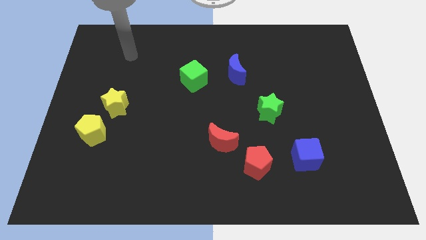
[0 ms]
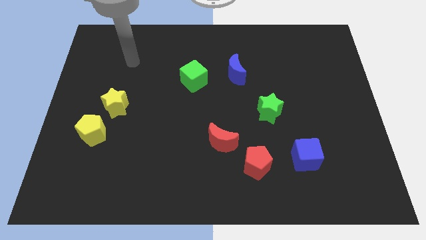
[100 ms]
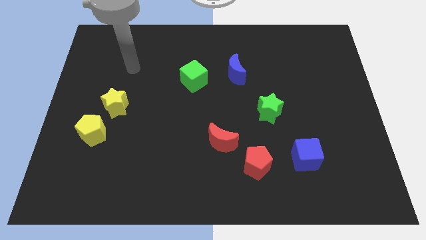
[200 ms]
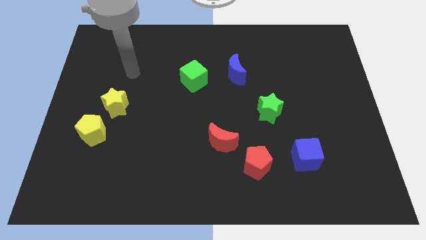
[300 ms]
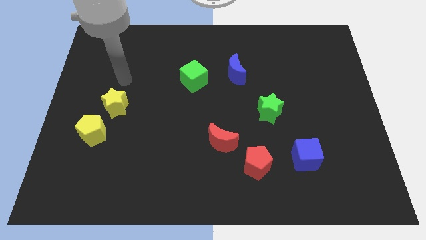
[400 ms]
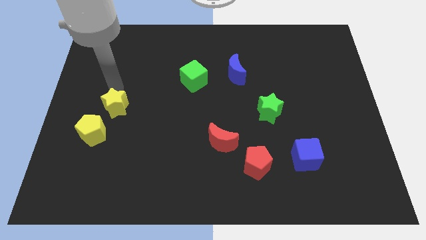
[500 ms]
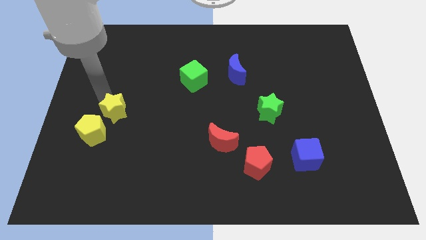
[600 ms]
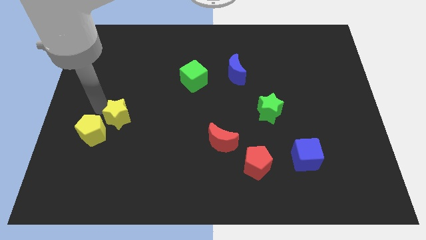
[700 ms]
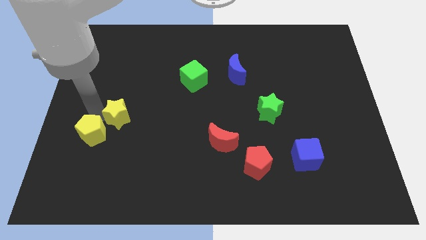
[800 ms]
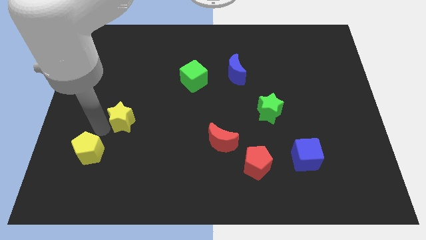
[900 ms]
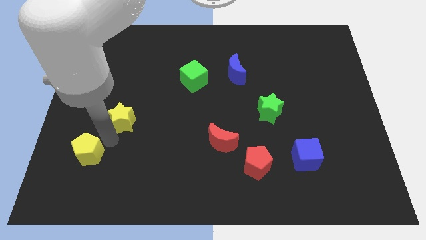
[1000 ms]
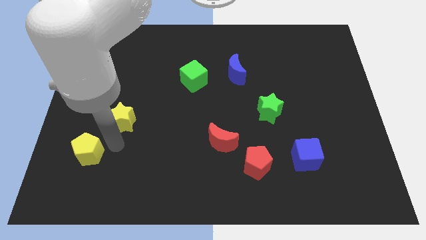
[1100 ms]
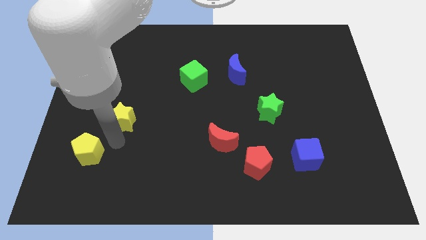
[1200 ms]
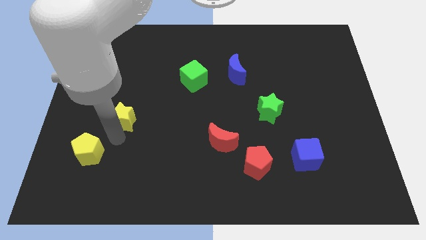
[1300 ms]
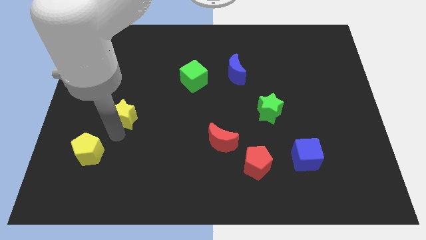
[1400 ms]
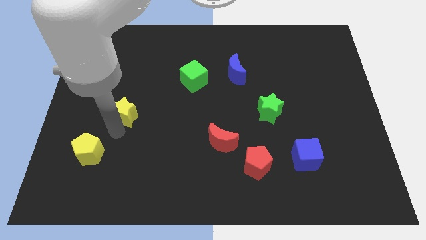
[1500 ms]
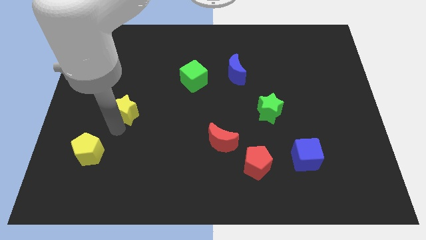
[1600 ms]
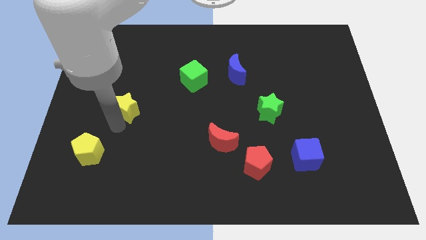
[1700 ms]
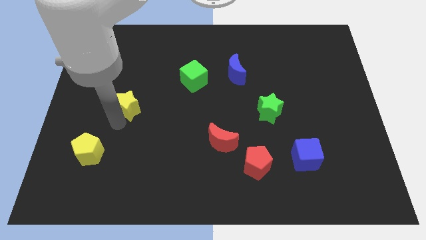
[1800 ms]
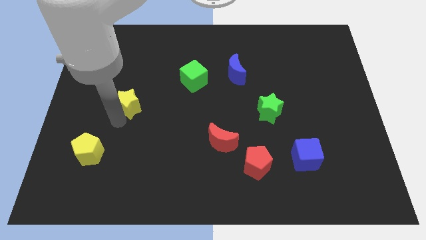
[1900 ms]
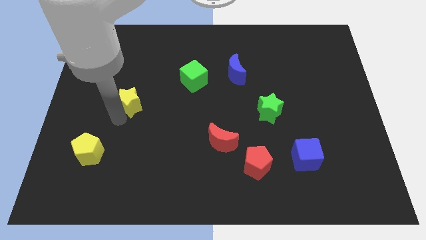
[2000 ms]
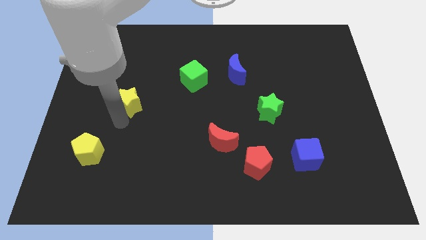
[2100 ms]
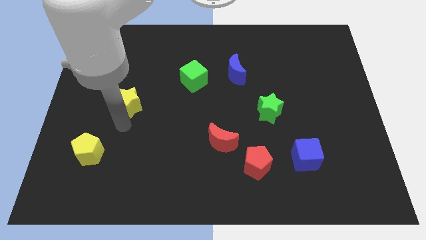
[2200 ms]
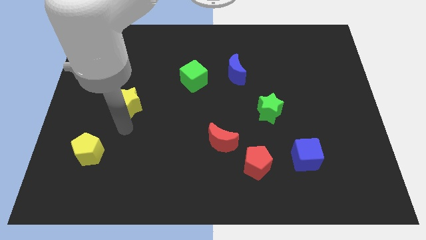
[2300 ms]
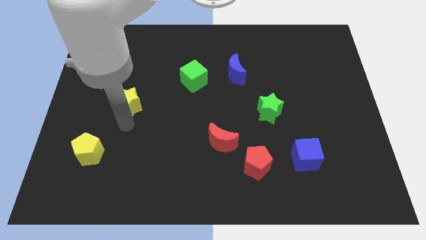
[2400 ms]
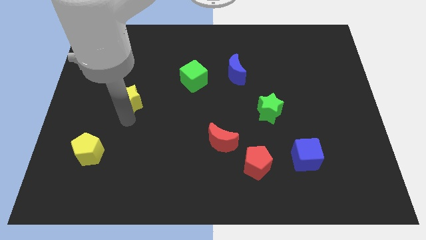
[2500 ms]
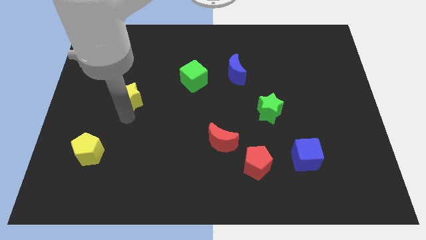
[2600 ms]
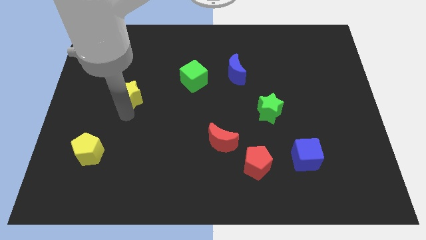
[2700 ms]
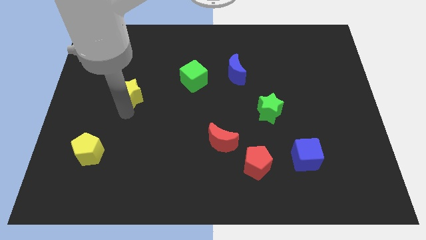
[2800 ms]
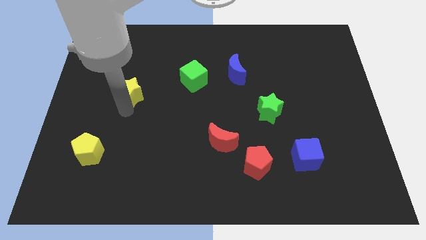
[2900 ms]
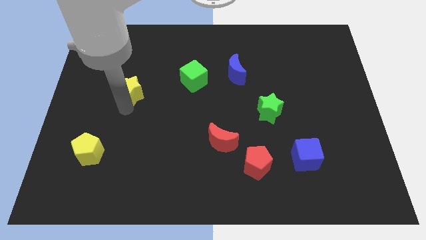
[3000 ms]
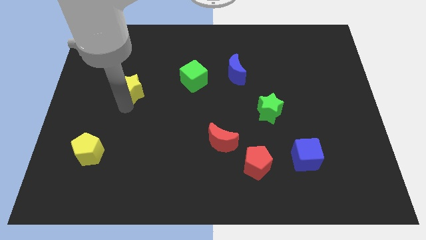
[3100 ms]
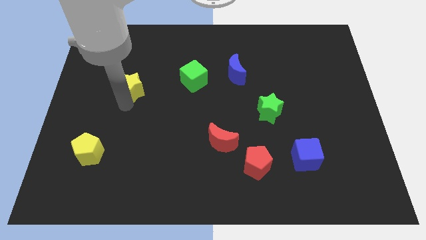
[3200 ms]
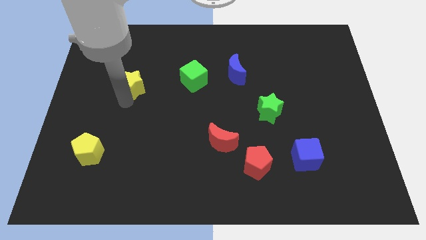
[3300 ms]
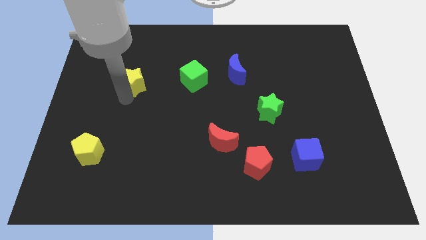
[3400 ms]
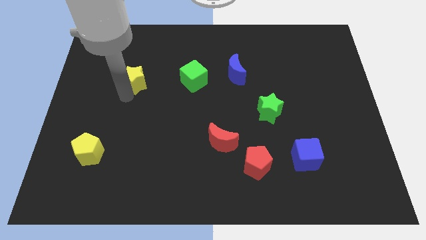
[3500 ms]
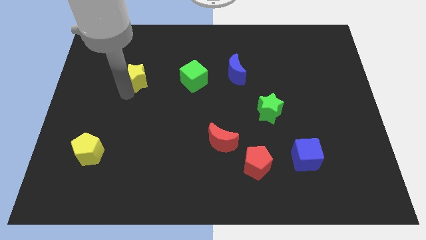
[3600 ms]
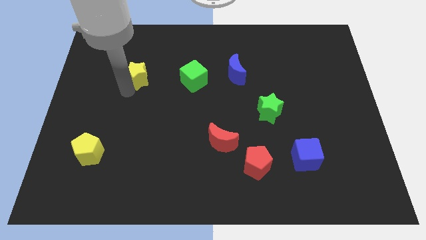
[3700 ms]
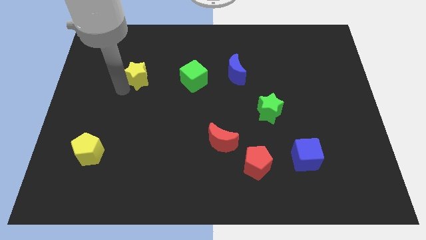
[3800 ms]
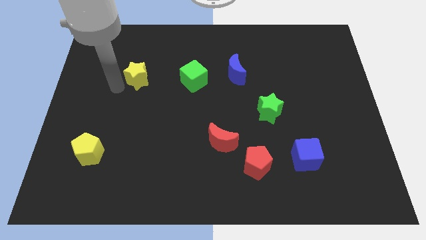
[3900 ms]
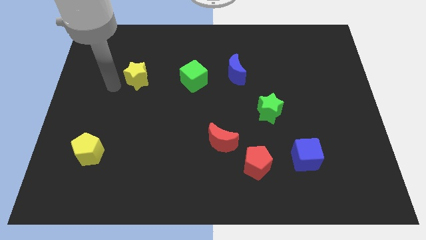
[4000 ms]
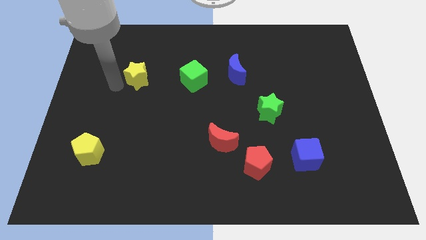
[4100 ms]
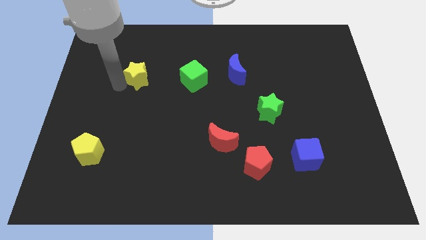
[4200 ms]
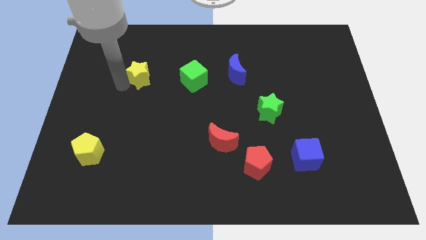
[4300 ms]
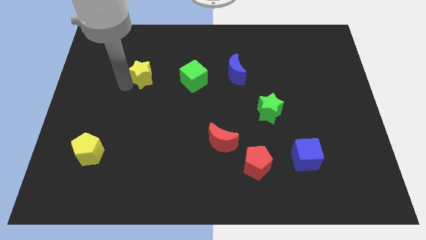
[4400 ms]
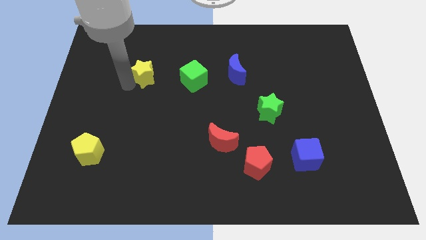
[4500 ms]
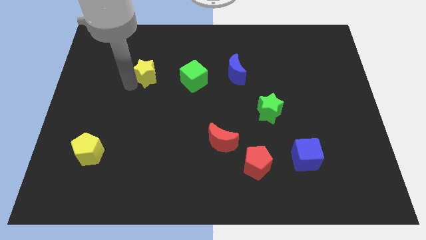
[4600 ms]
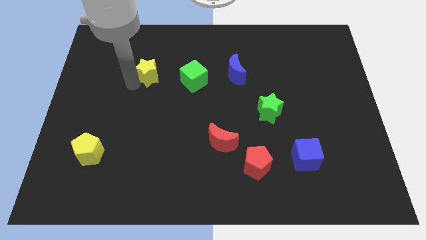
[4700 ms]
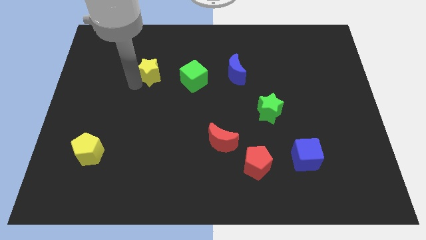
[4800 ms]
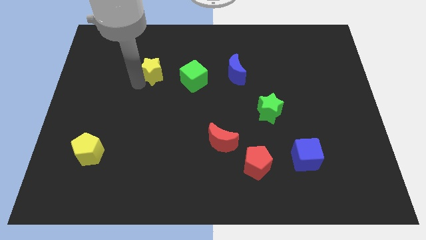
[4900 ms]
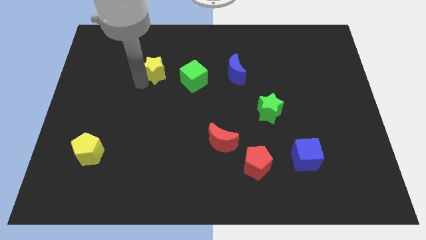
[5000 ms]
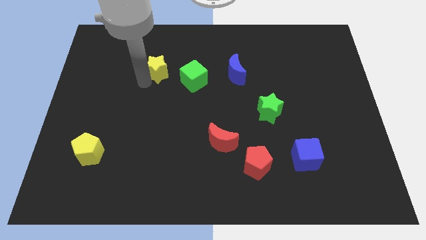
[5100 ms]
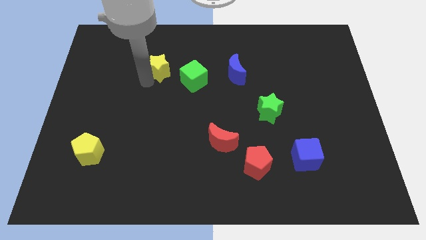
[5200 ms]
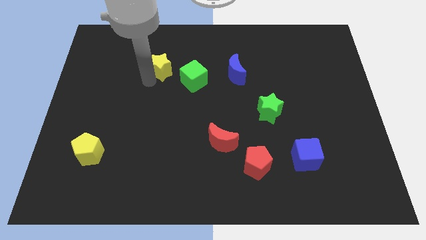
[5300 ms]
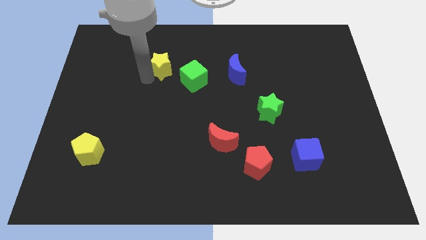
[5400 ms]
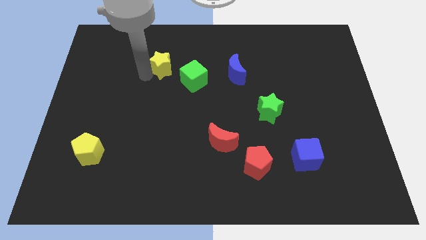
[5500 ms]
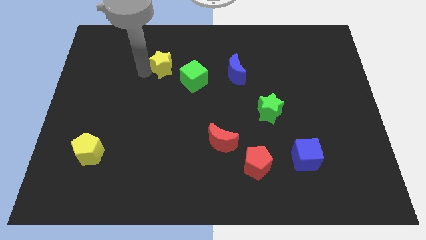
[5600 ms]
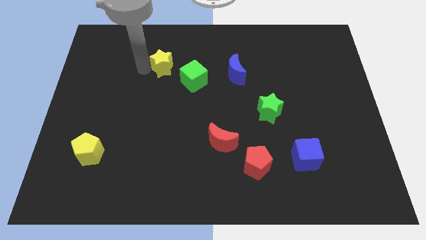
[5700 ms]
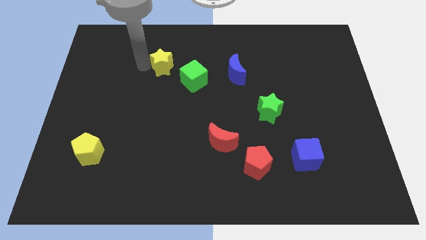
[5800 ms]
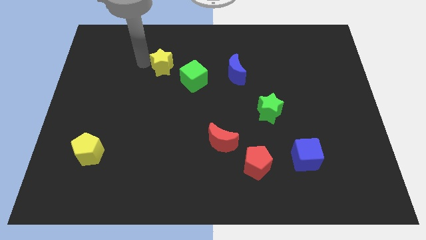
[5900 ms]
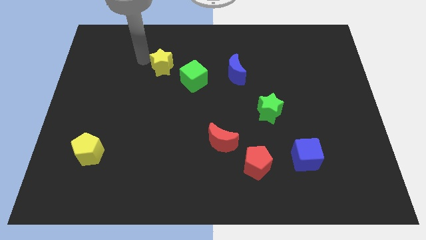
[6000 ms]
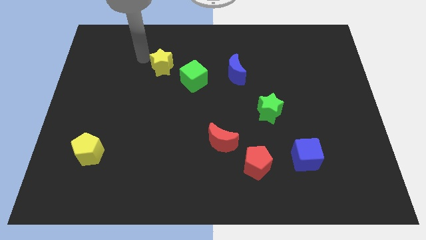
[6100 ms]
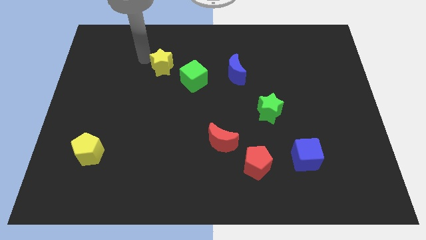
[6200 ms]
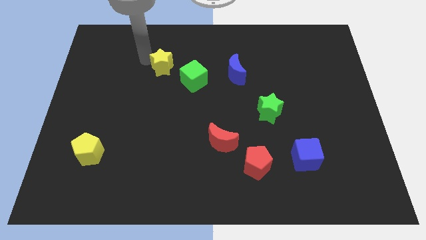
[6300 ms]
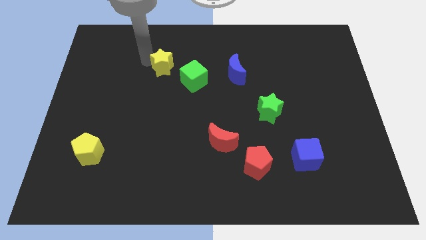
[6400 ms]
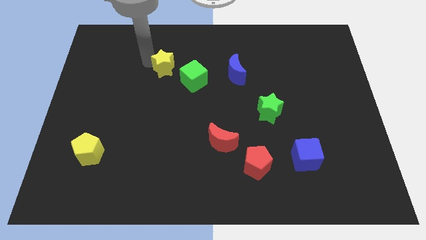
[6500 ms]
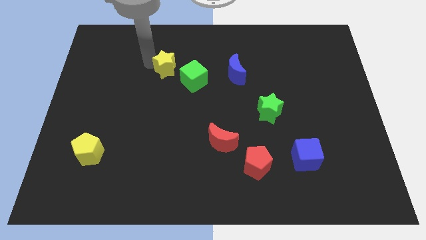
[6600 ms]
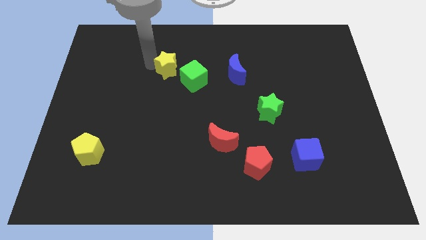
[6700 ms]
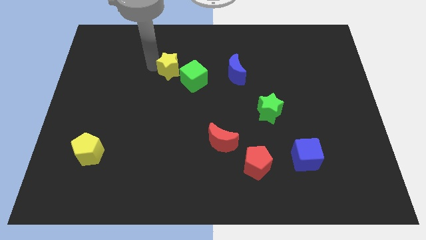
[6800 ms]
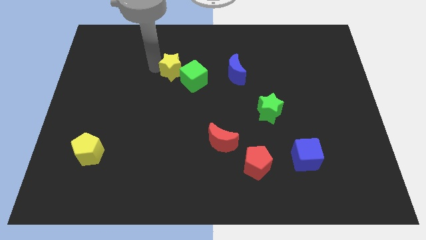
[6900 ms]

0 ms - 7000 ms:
slide the yellow star to the left of the blue moon

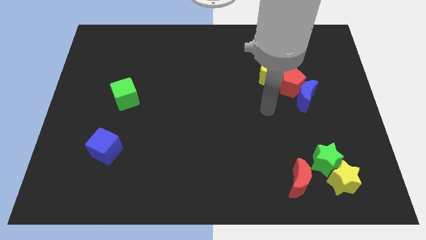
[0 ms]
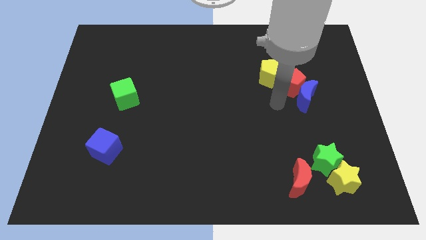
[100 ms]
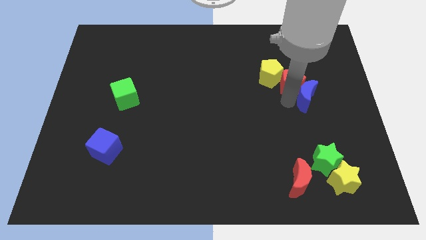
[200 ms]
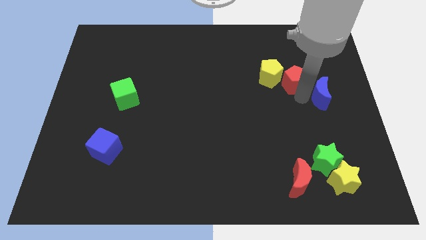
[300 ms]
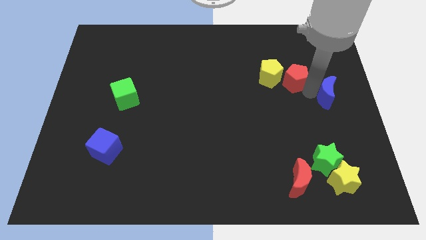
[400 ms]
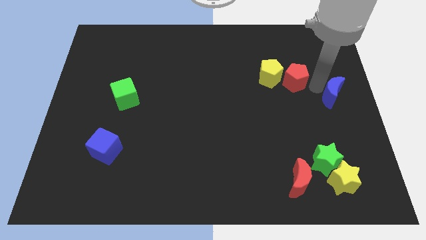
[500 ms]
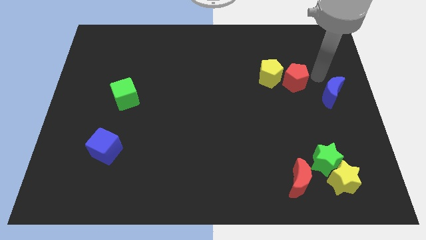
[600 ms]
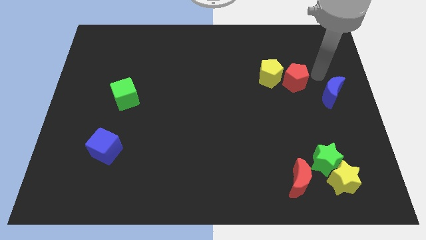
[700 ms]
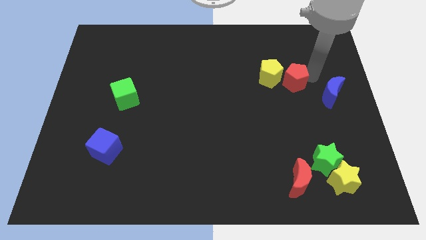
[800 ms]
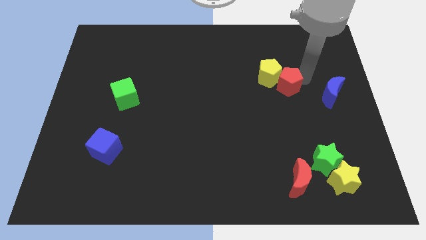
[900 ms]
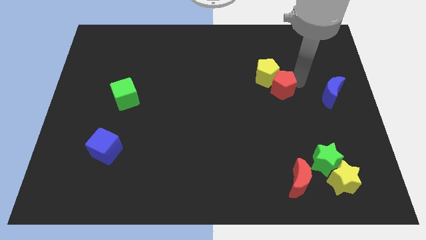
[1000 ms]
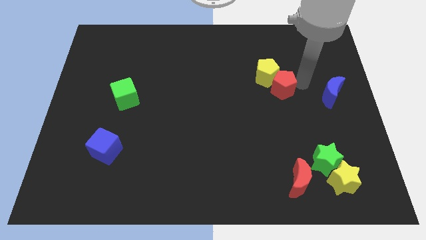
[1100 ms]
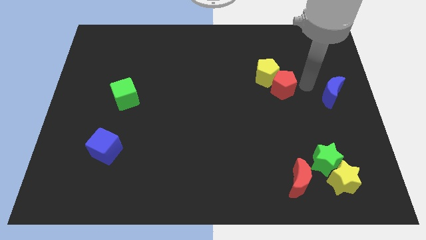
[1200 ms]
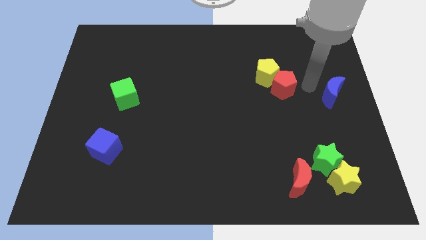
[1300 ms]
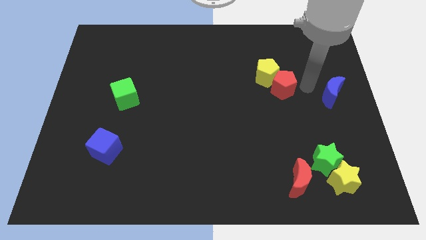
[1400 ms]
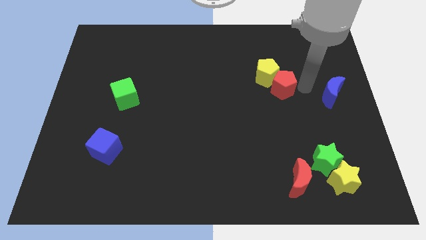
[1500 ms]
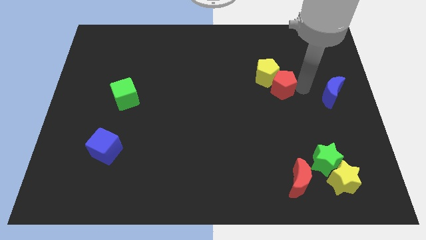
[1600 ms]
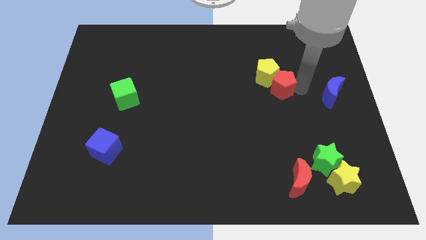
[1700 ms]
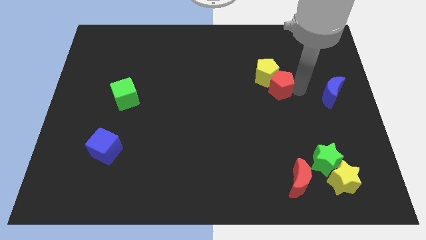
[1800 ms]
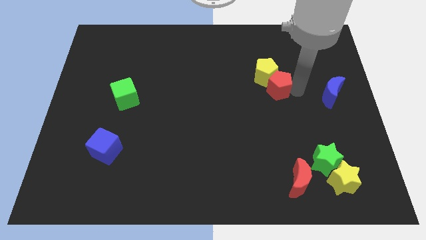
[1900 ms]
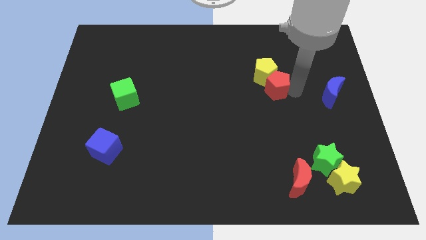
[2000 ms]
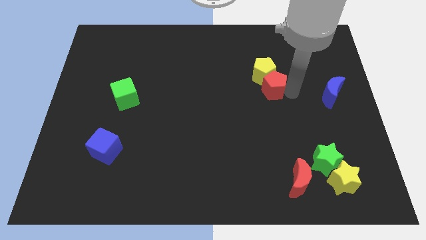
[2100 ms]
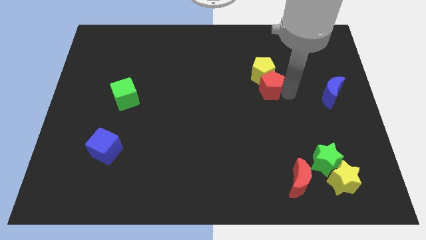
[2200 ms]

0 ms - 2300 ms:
put the red pentagon to the bottom left of the yellow pentagon
